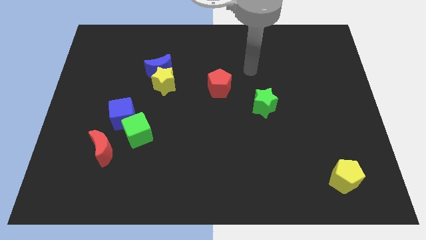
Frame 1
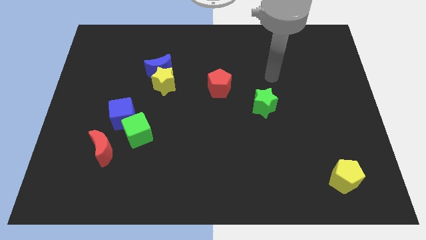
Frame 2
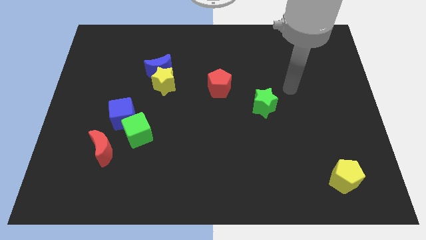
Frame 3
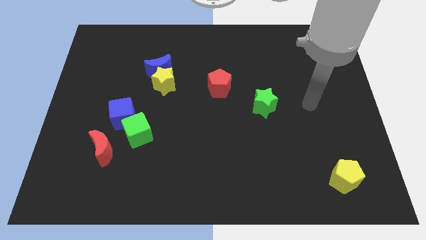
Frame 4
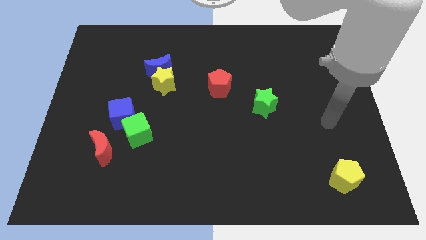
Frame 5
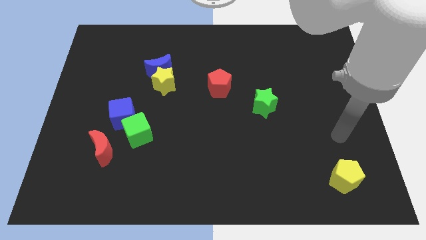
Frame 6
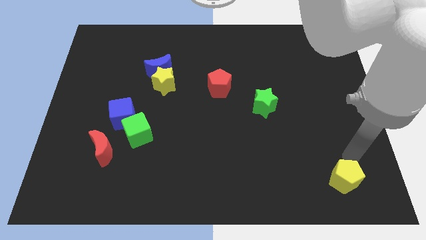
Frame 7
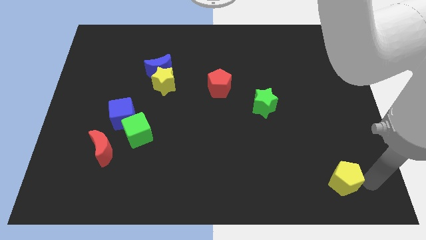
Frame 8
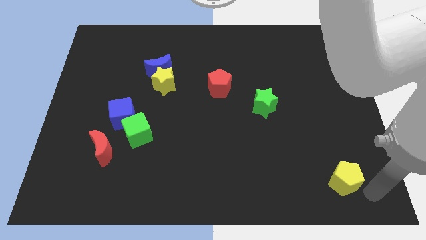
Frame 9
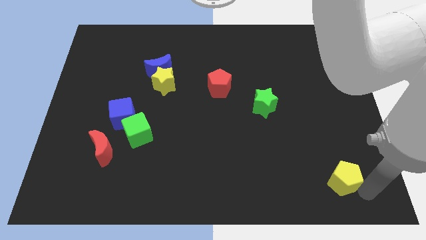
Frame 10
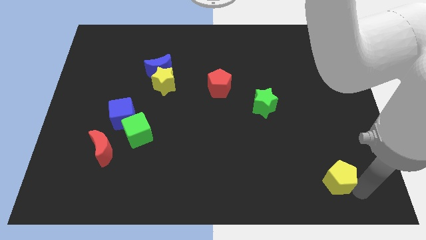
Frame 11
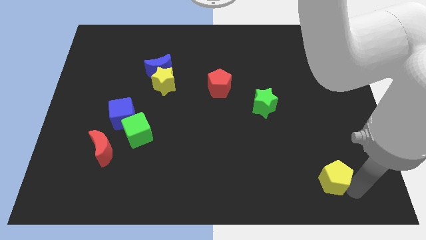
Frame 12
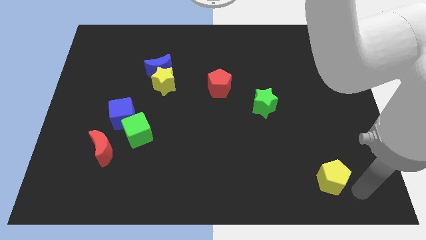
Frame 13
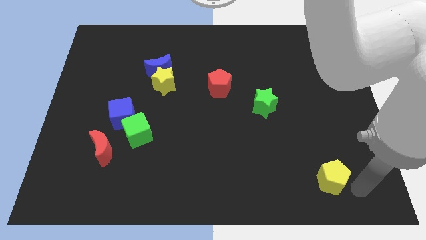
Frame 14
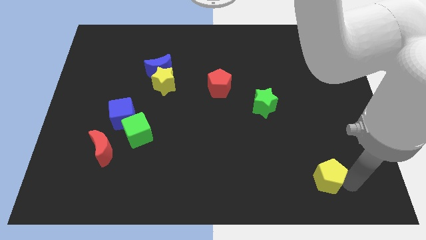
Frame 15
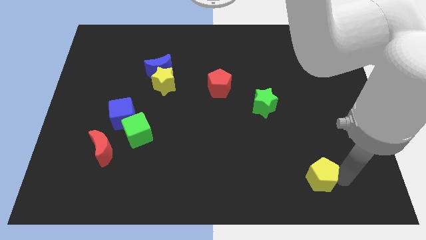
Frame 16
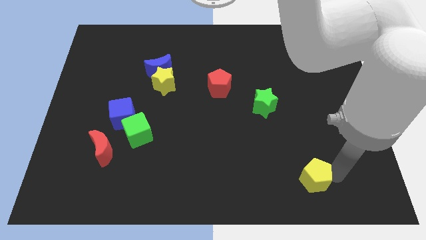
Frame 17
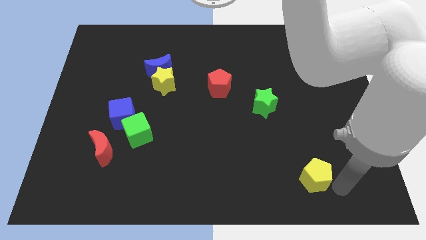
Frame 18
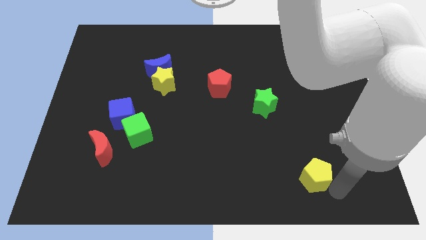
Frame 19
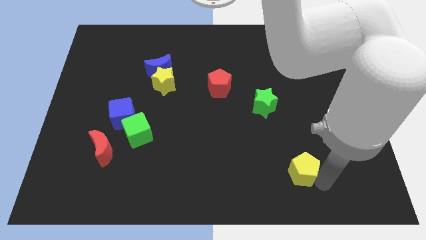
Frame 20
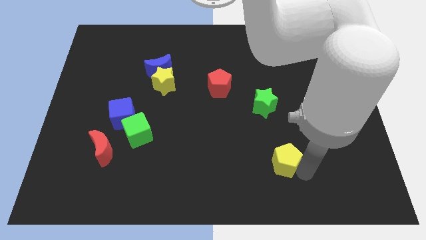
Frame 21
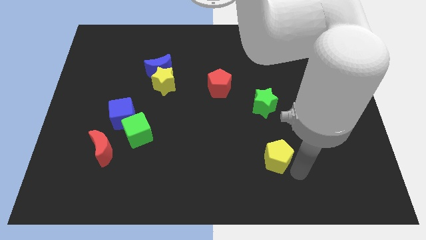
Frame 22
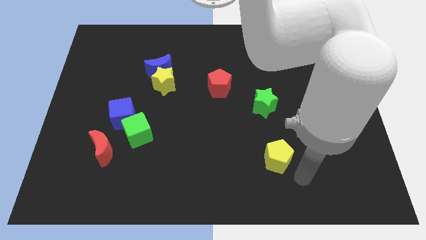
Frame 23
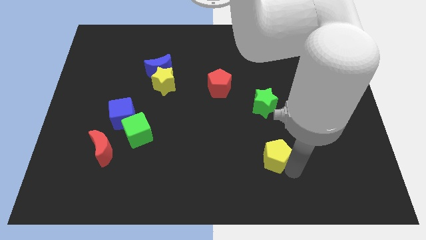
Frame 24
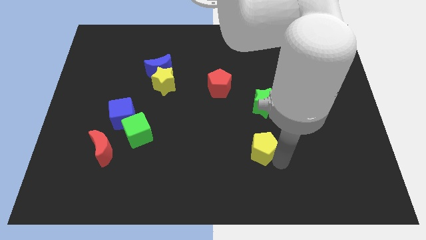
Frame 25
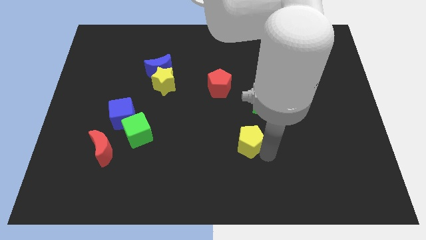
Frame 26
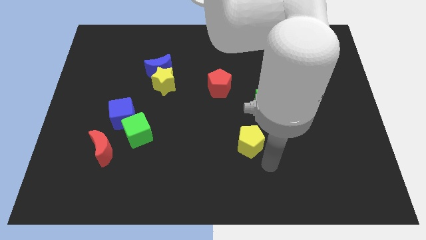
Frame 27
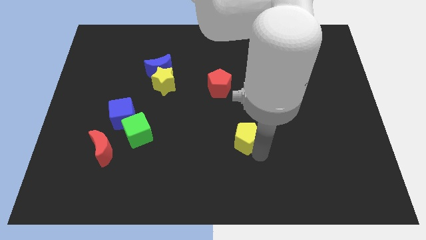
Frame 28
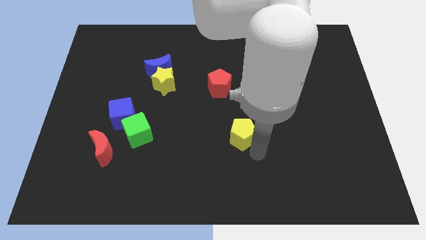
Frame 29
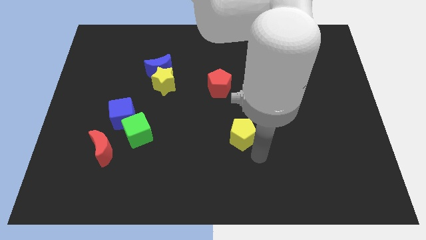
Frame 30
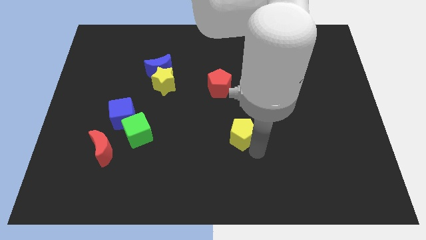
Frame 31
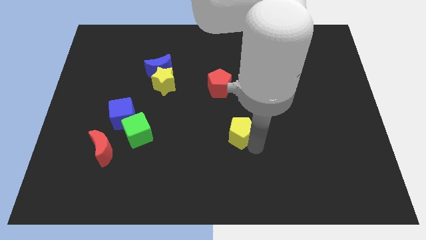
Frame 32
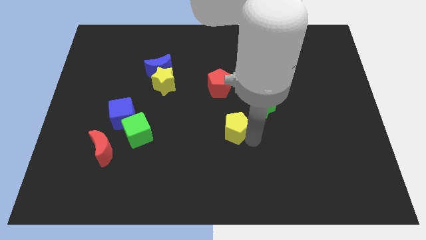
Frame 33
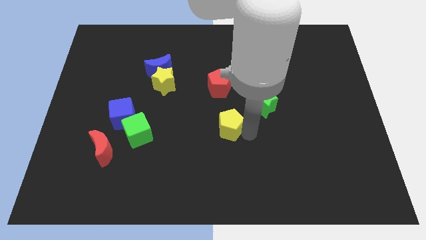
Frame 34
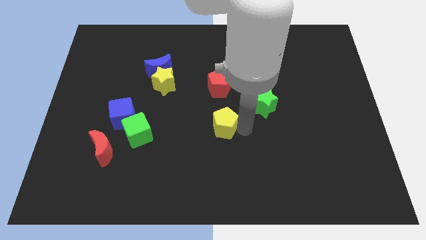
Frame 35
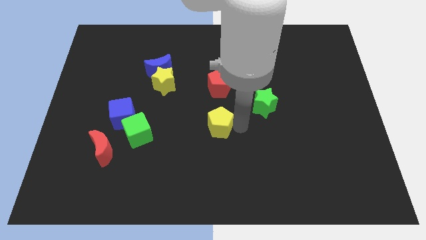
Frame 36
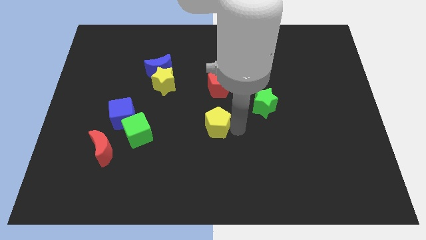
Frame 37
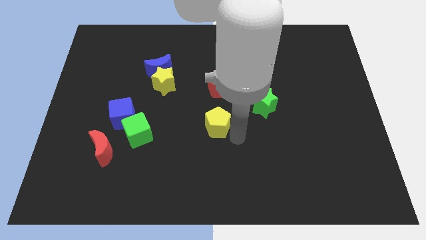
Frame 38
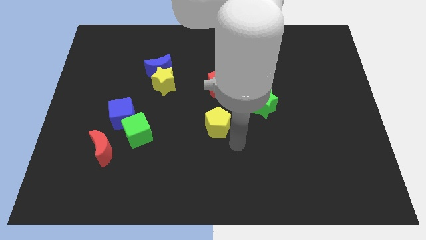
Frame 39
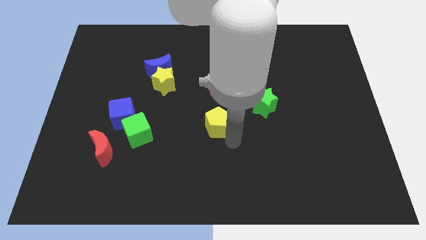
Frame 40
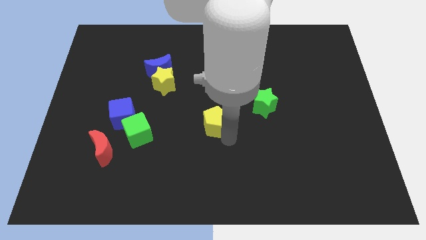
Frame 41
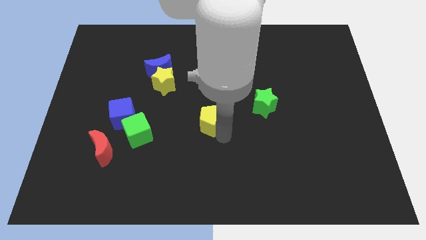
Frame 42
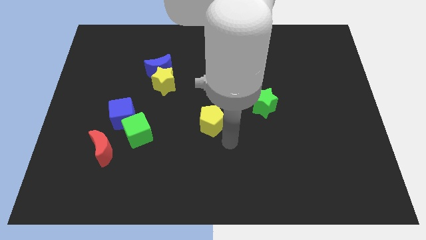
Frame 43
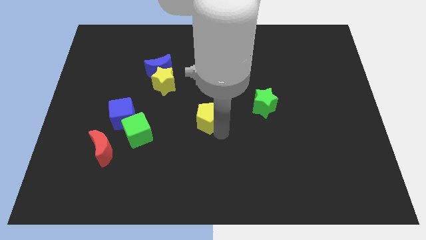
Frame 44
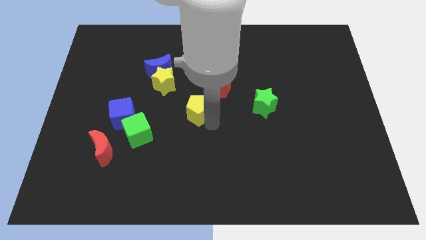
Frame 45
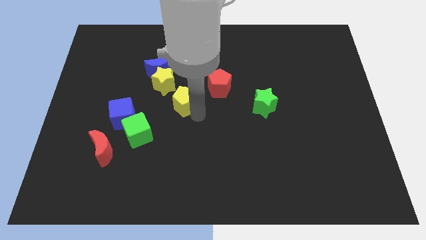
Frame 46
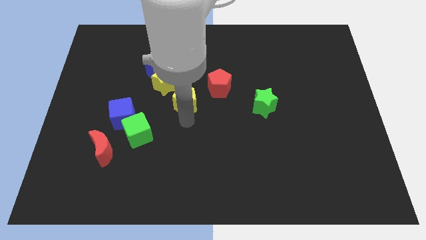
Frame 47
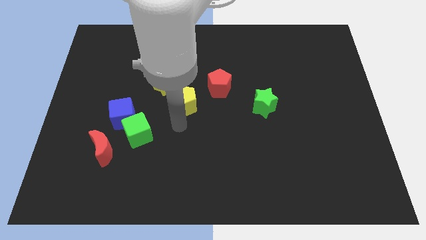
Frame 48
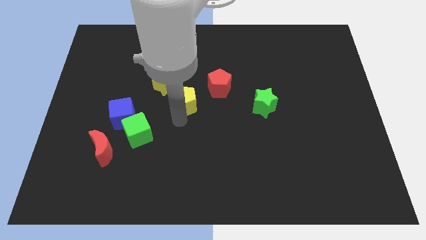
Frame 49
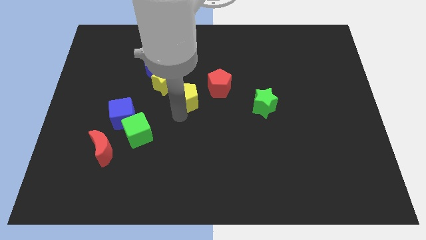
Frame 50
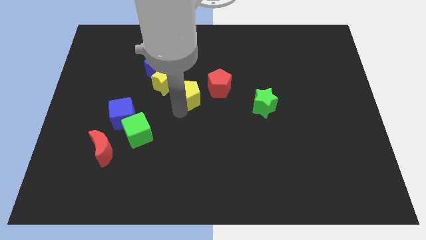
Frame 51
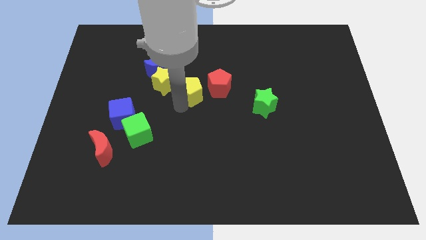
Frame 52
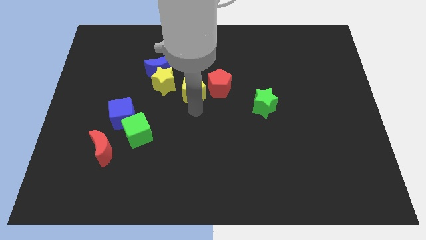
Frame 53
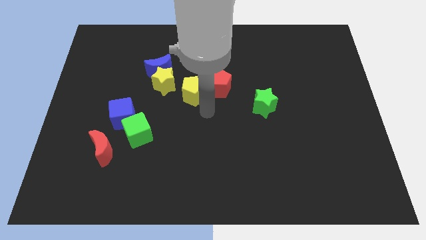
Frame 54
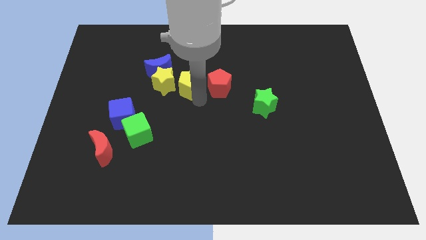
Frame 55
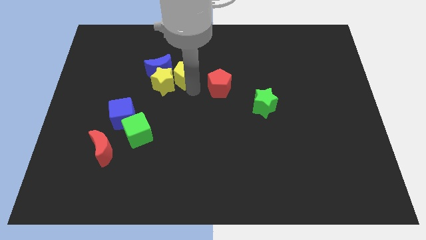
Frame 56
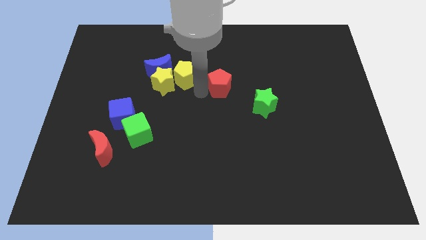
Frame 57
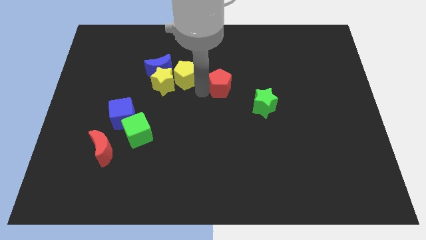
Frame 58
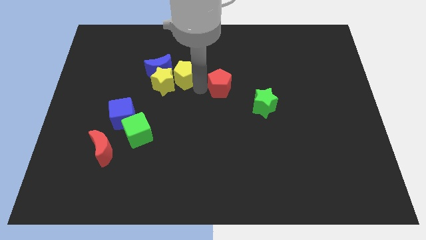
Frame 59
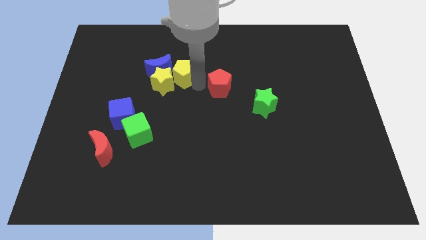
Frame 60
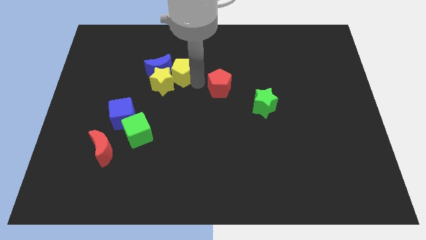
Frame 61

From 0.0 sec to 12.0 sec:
move the yellow pentagon next to the blue moon

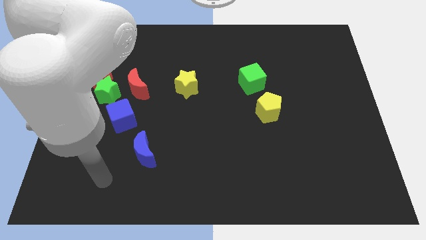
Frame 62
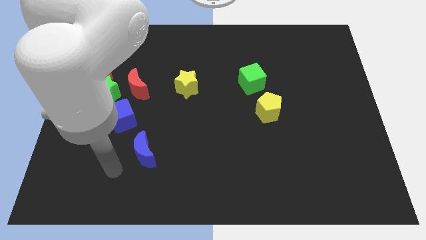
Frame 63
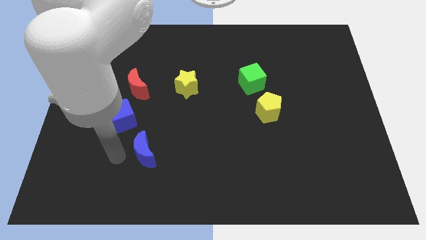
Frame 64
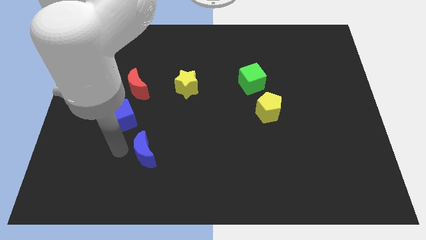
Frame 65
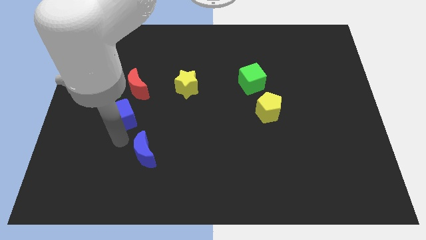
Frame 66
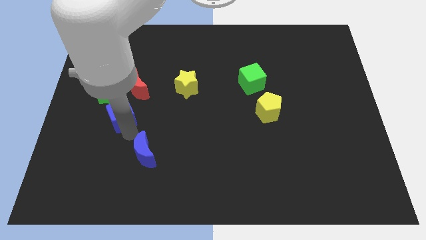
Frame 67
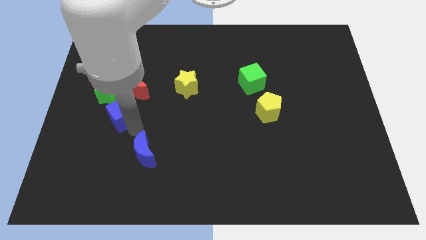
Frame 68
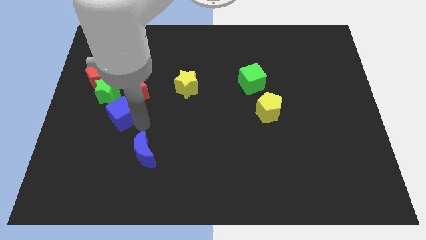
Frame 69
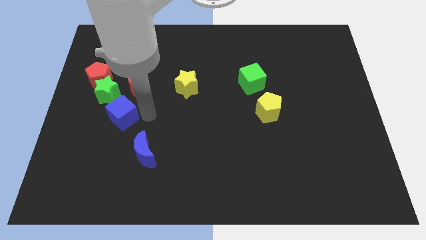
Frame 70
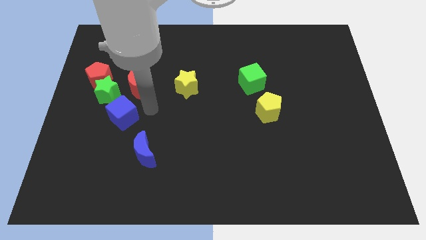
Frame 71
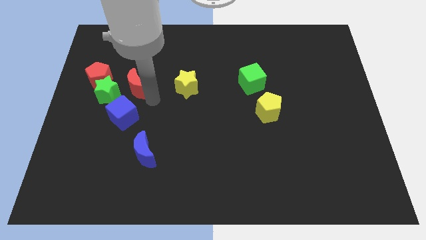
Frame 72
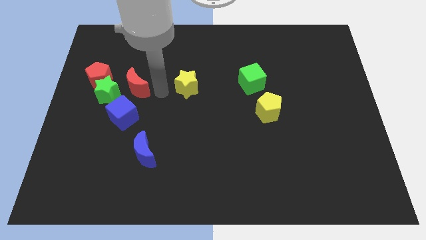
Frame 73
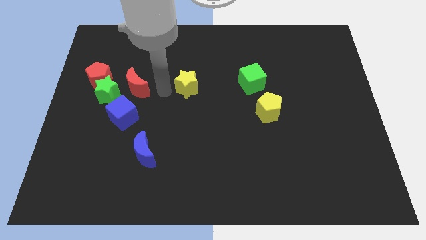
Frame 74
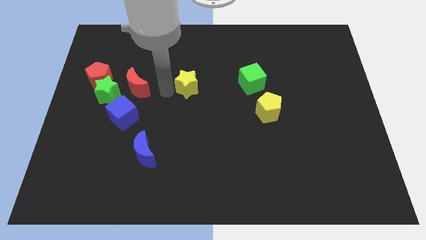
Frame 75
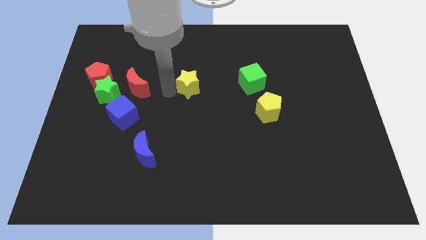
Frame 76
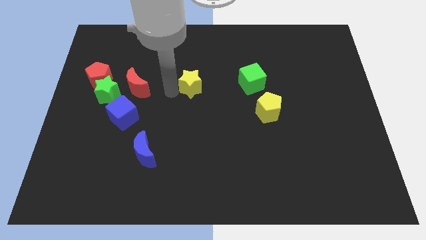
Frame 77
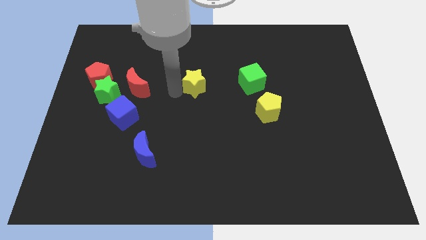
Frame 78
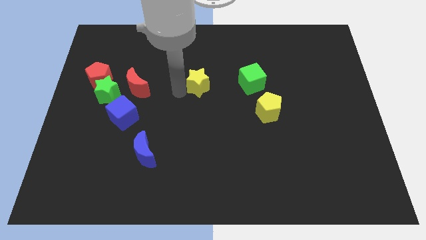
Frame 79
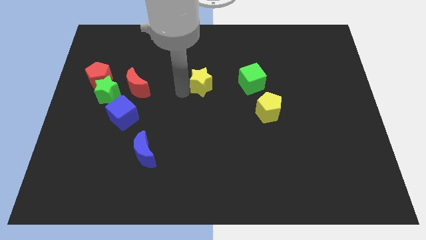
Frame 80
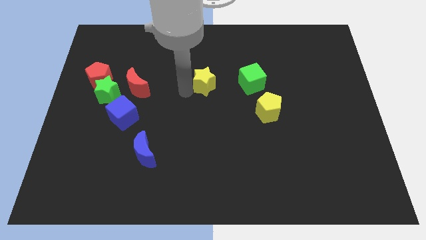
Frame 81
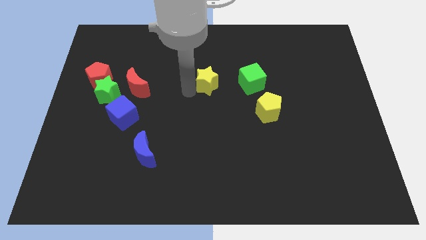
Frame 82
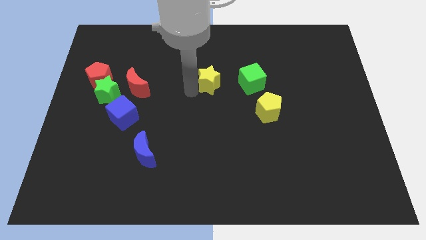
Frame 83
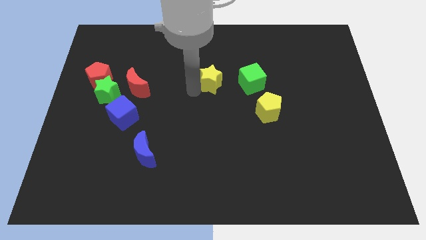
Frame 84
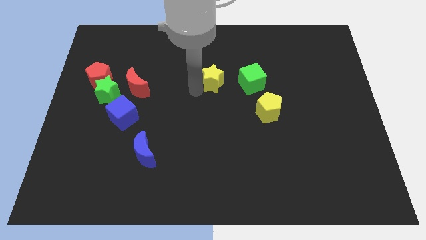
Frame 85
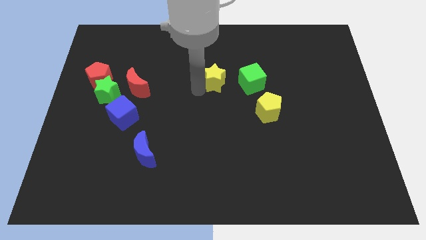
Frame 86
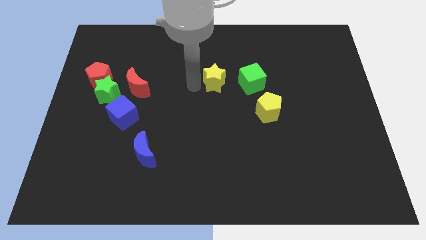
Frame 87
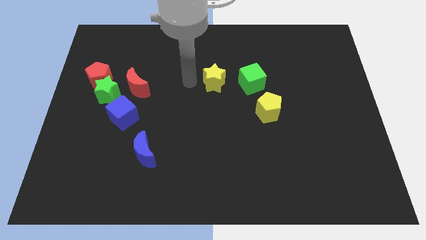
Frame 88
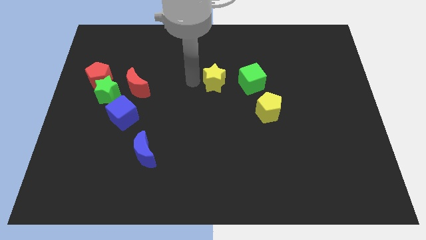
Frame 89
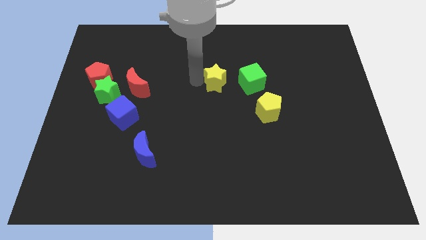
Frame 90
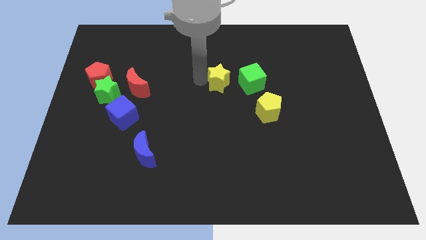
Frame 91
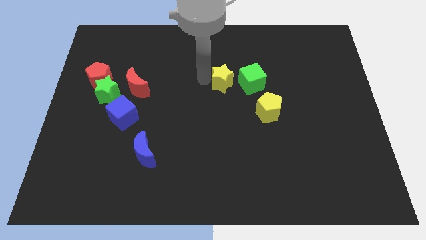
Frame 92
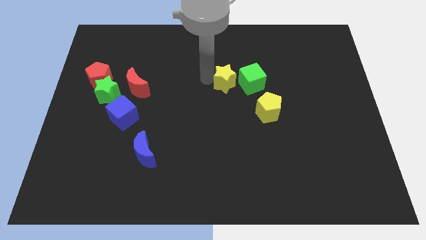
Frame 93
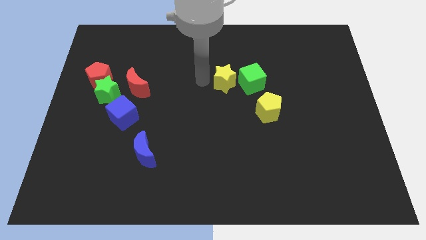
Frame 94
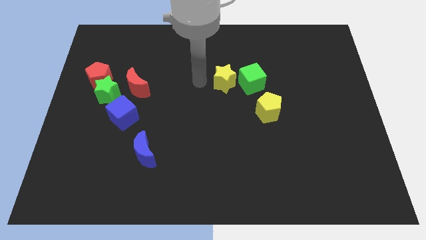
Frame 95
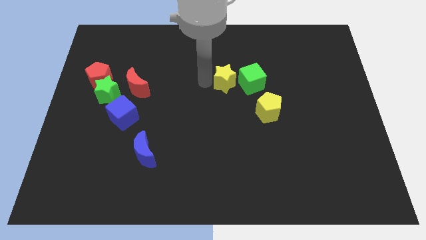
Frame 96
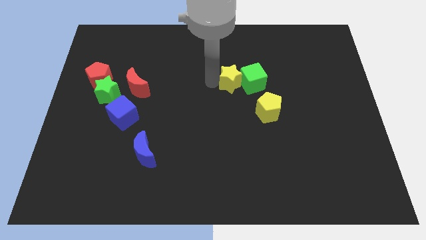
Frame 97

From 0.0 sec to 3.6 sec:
put the yellow star next to the green cube
